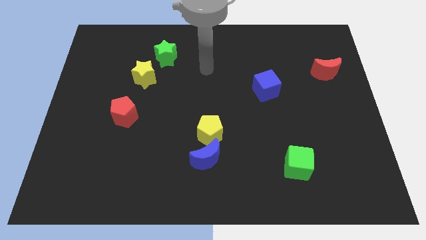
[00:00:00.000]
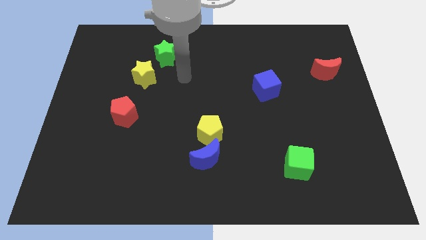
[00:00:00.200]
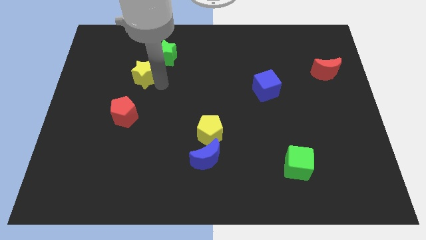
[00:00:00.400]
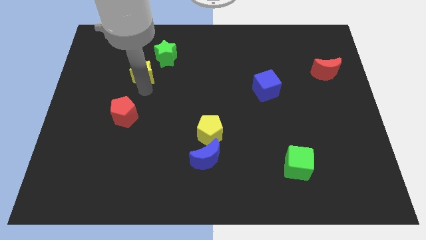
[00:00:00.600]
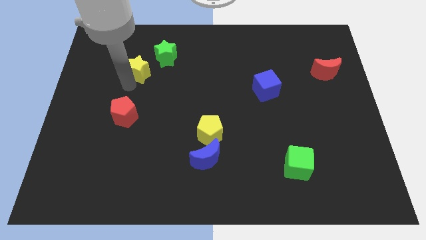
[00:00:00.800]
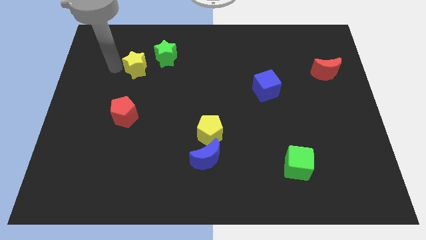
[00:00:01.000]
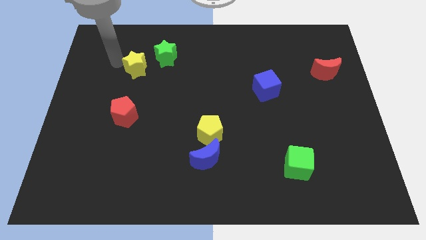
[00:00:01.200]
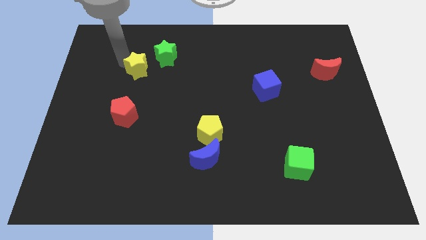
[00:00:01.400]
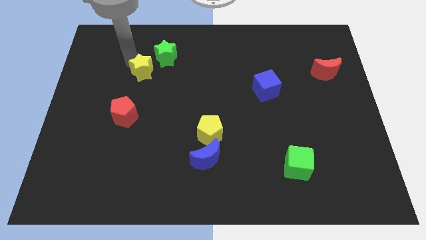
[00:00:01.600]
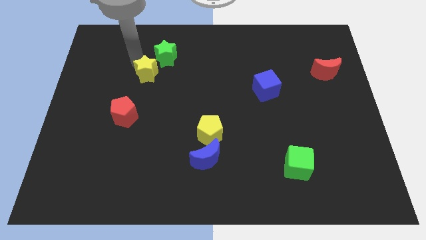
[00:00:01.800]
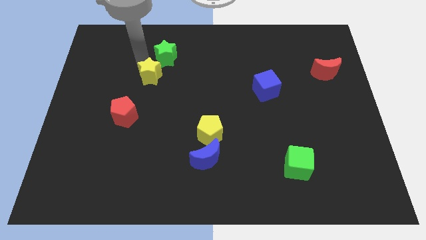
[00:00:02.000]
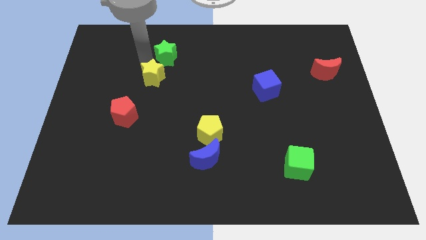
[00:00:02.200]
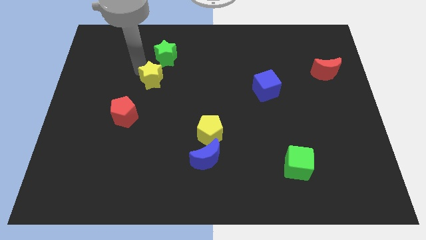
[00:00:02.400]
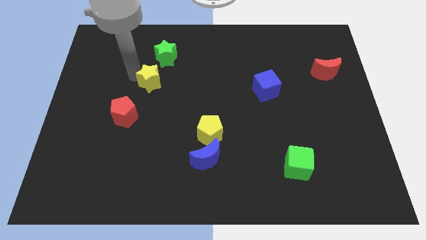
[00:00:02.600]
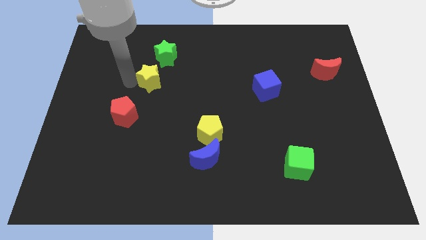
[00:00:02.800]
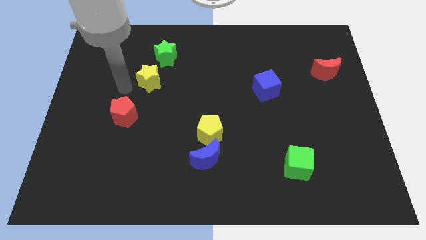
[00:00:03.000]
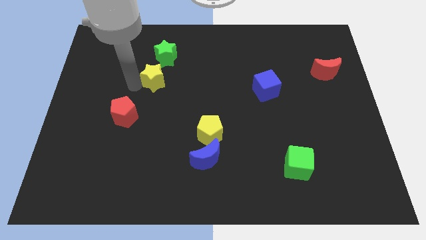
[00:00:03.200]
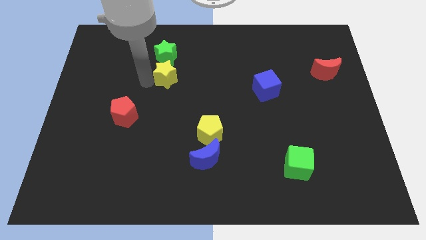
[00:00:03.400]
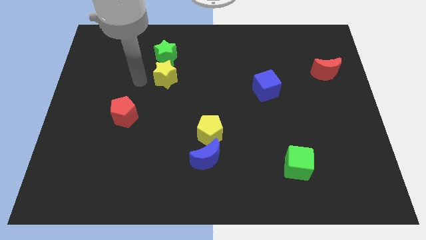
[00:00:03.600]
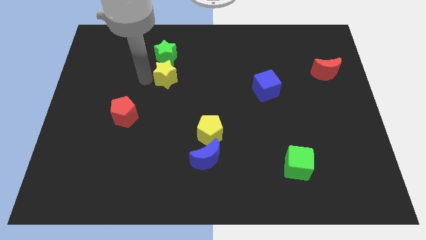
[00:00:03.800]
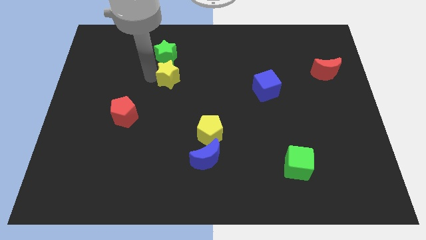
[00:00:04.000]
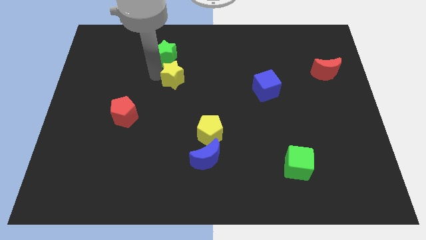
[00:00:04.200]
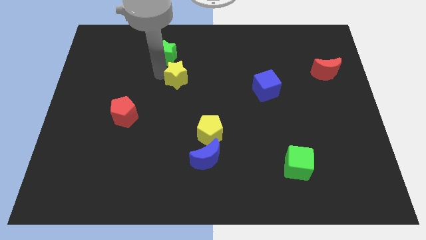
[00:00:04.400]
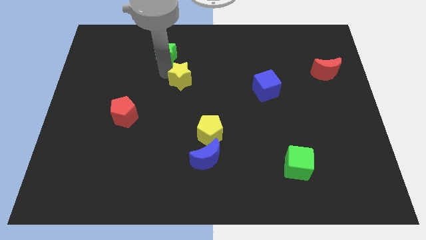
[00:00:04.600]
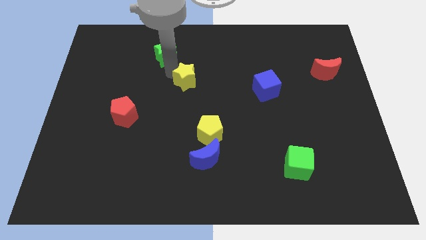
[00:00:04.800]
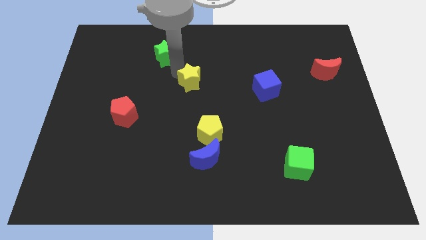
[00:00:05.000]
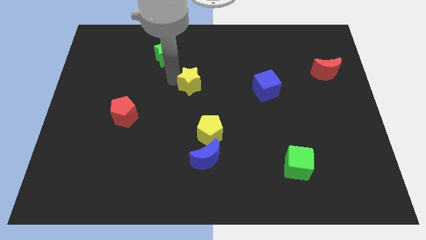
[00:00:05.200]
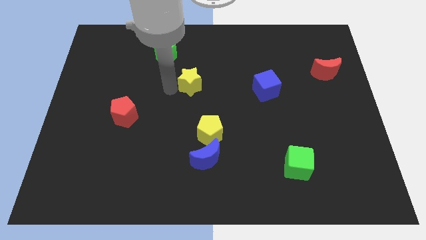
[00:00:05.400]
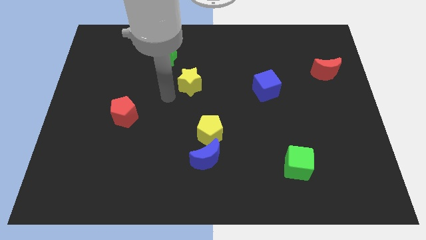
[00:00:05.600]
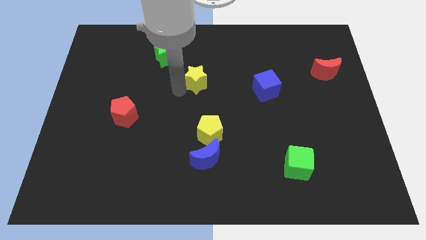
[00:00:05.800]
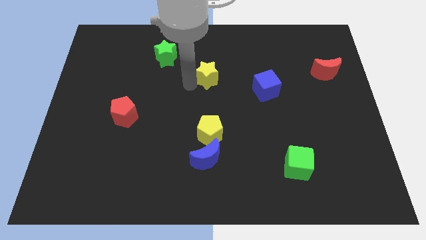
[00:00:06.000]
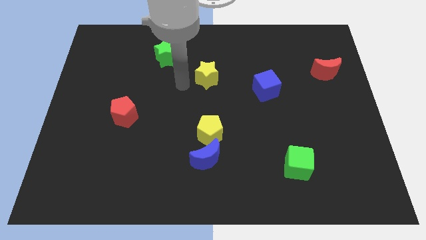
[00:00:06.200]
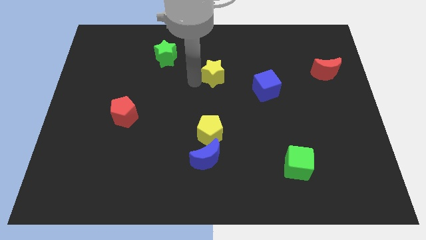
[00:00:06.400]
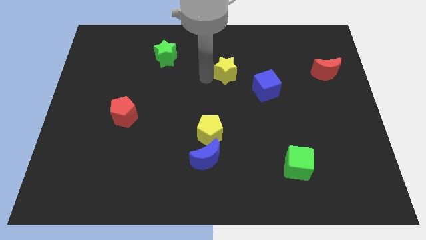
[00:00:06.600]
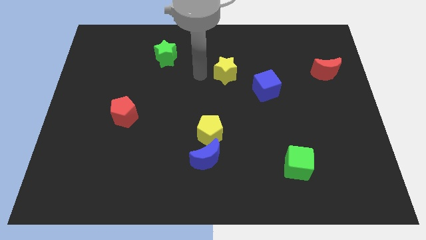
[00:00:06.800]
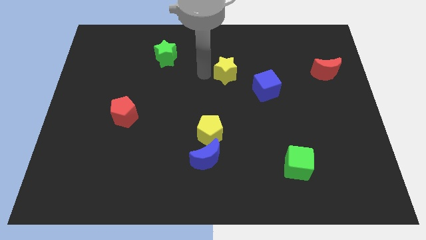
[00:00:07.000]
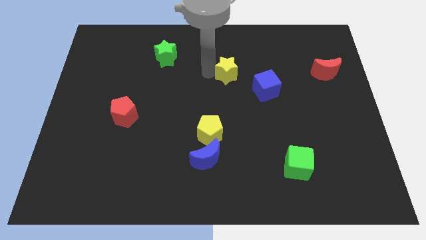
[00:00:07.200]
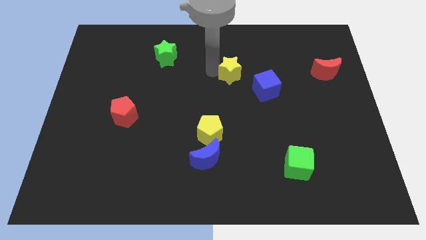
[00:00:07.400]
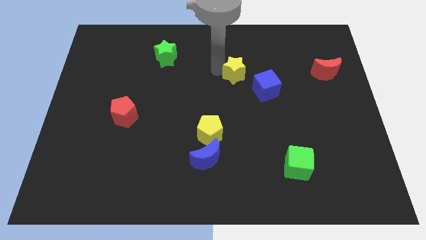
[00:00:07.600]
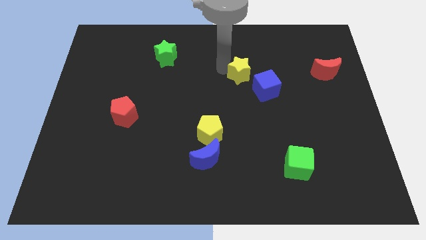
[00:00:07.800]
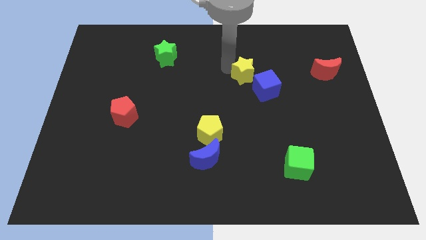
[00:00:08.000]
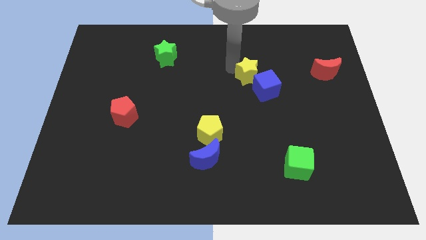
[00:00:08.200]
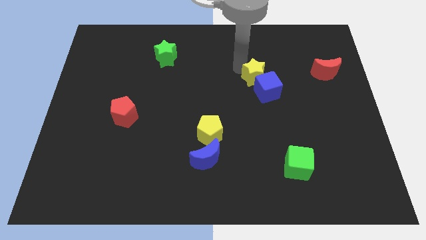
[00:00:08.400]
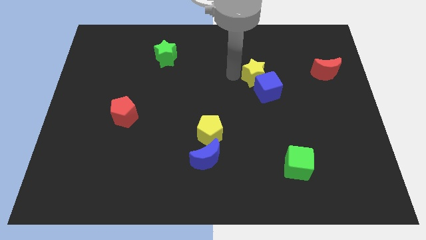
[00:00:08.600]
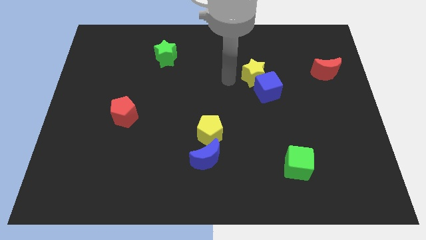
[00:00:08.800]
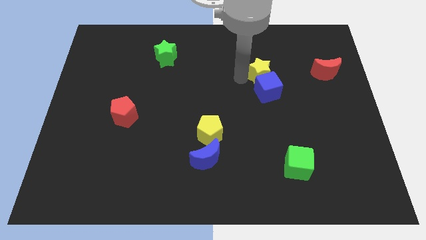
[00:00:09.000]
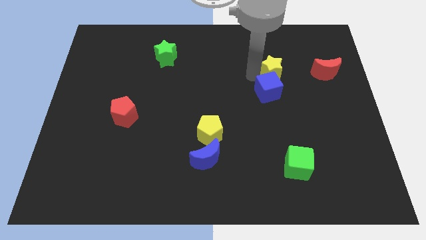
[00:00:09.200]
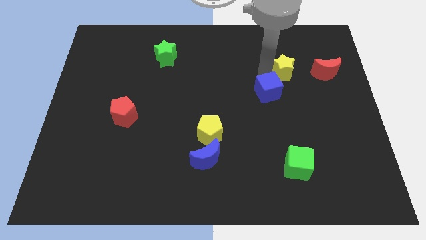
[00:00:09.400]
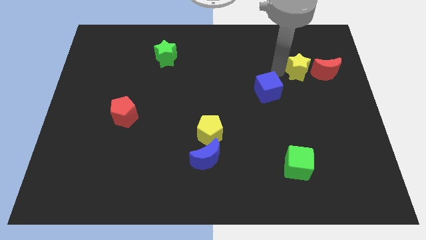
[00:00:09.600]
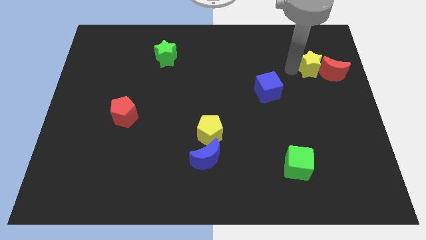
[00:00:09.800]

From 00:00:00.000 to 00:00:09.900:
move the yellow star to the red moon

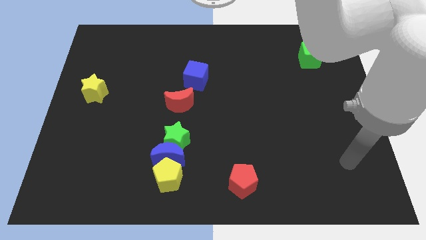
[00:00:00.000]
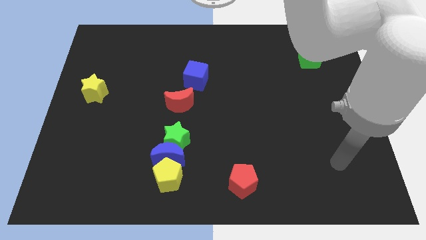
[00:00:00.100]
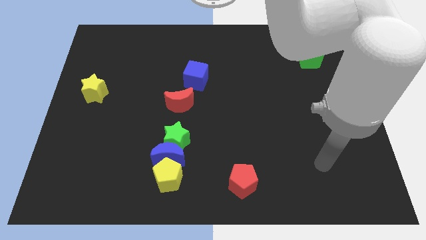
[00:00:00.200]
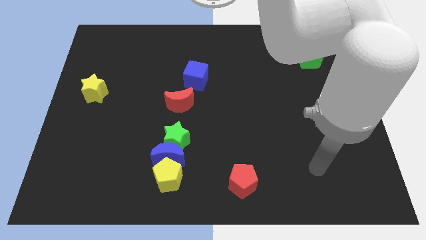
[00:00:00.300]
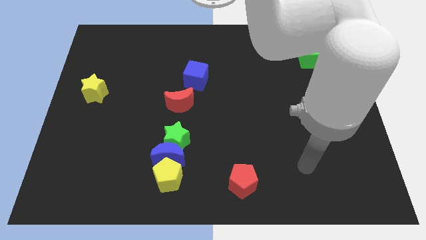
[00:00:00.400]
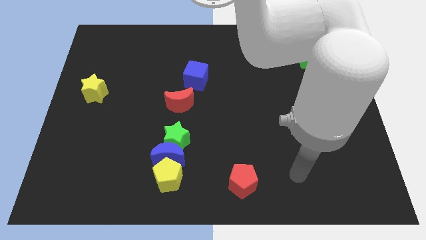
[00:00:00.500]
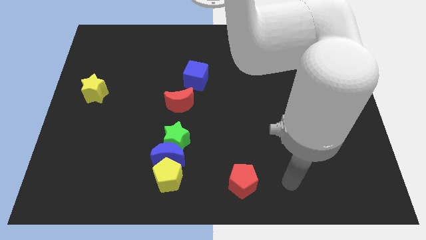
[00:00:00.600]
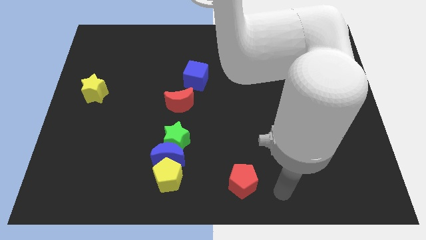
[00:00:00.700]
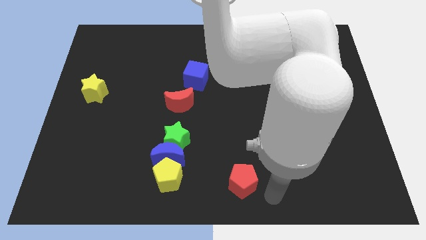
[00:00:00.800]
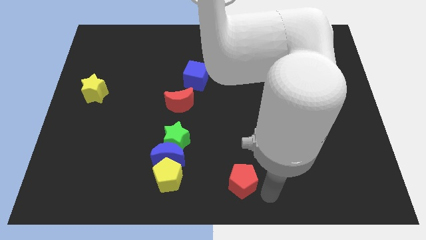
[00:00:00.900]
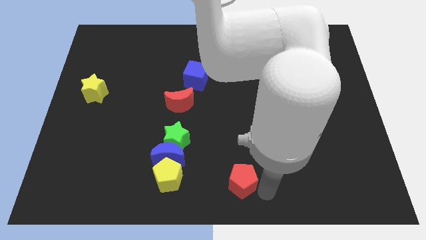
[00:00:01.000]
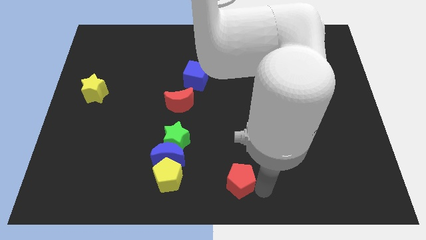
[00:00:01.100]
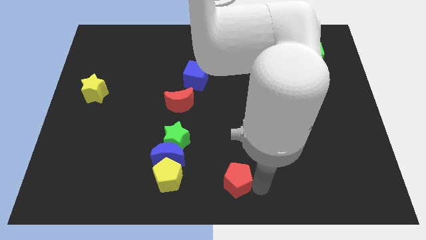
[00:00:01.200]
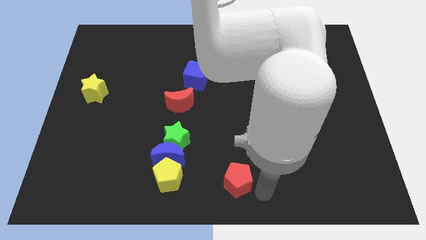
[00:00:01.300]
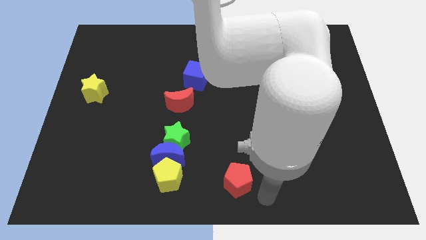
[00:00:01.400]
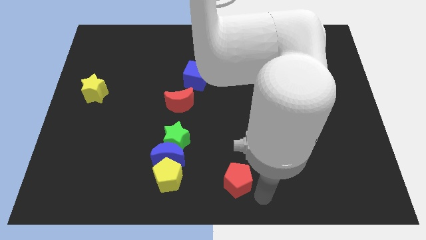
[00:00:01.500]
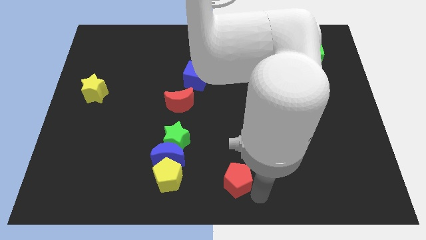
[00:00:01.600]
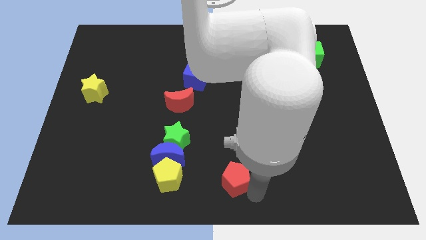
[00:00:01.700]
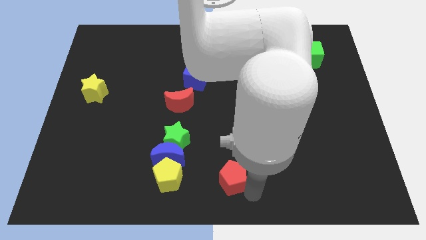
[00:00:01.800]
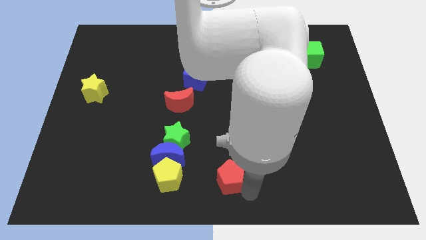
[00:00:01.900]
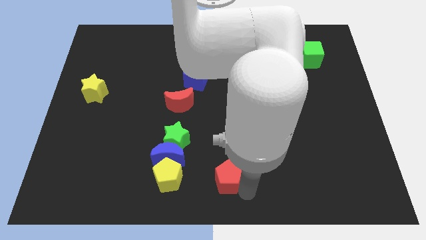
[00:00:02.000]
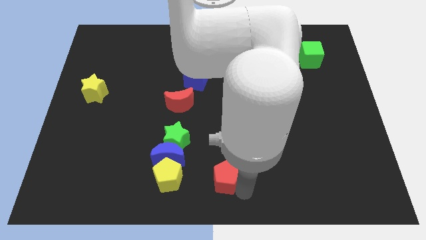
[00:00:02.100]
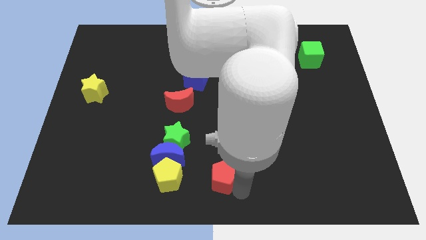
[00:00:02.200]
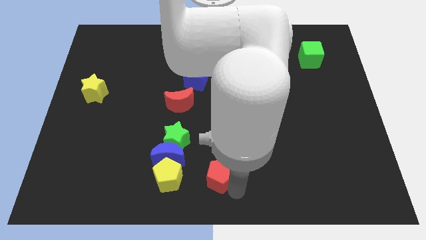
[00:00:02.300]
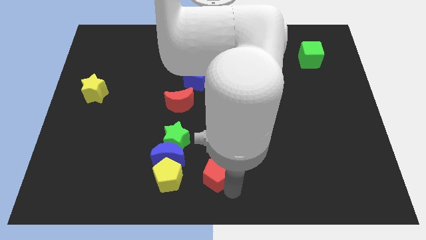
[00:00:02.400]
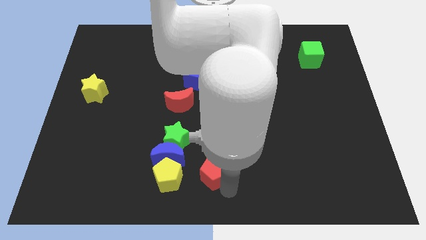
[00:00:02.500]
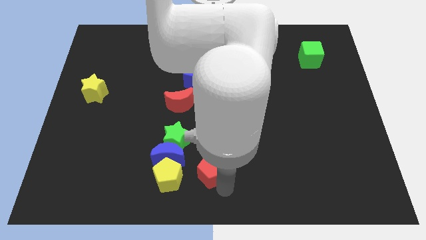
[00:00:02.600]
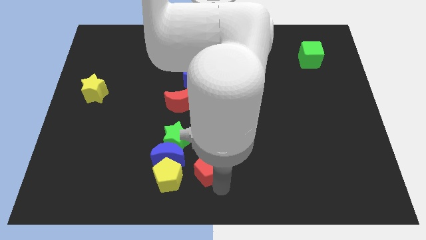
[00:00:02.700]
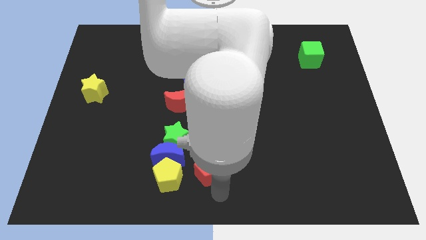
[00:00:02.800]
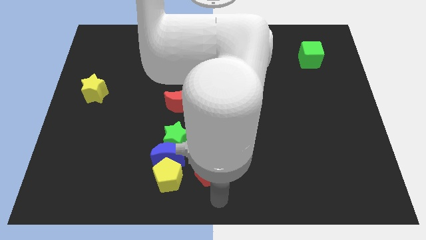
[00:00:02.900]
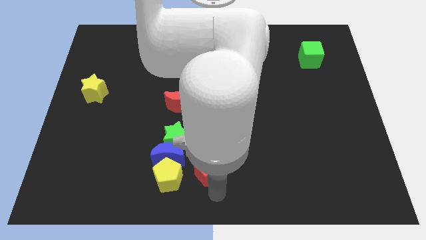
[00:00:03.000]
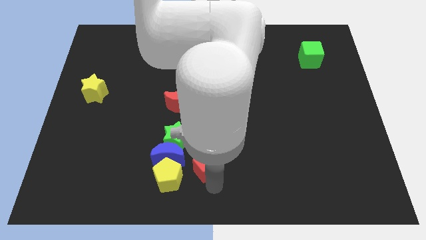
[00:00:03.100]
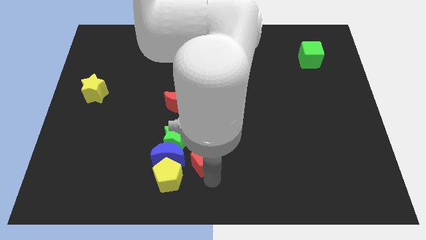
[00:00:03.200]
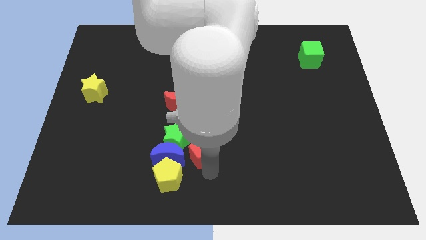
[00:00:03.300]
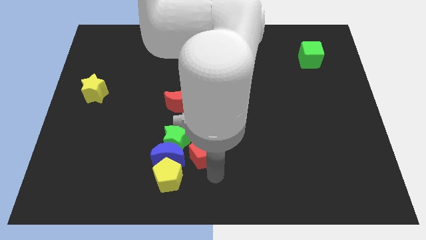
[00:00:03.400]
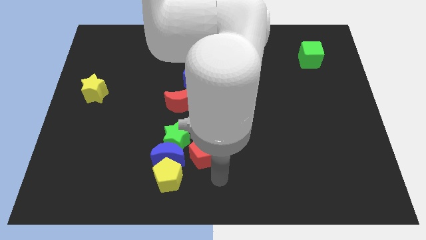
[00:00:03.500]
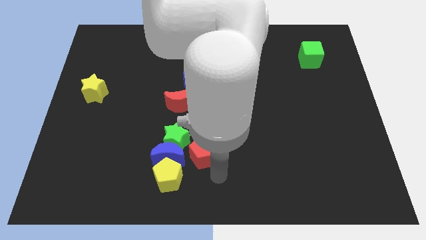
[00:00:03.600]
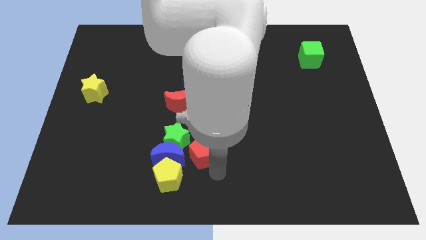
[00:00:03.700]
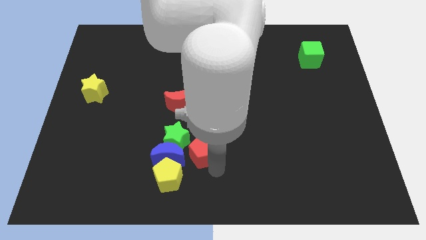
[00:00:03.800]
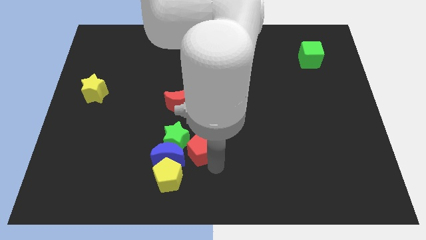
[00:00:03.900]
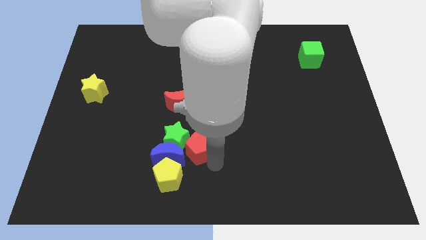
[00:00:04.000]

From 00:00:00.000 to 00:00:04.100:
put the red pentagon towards the green star
